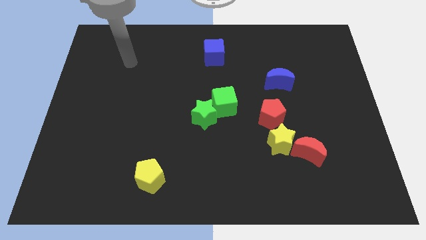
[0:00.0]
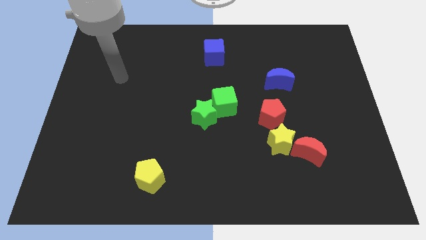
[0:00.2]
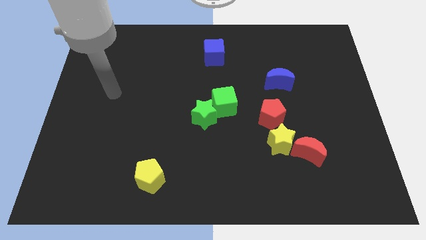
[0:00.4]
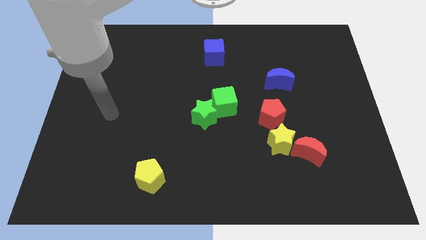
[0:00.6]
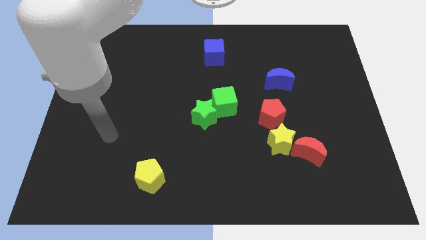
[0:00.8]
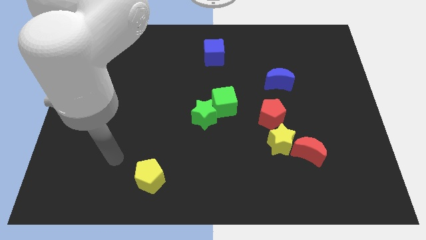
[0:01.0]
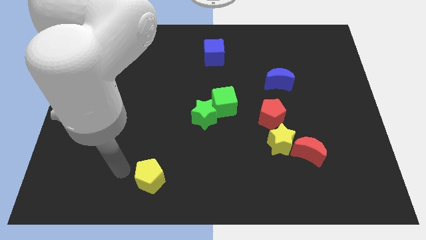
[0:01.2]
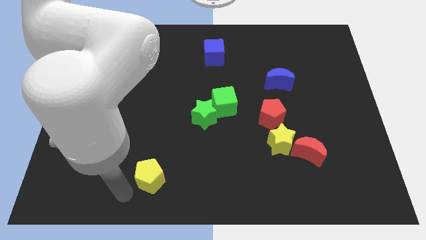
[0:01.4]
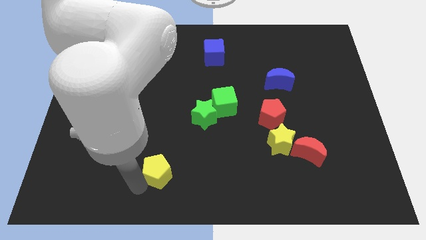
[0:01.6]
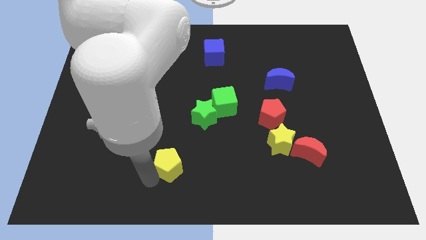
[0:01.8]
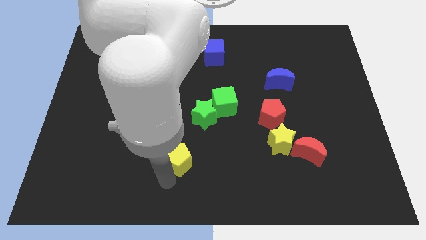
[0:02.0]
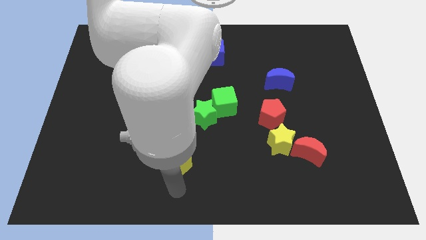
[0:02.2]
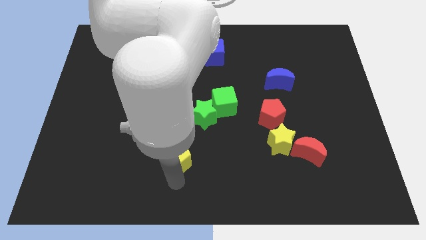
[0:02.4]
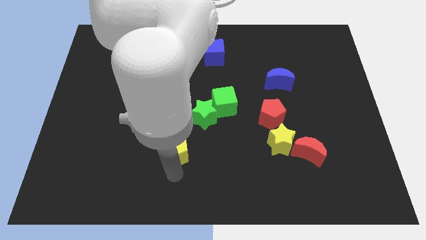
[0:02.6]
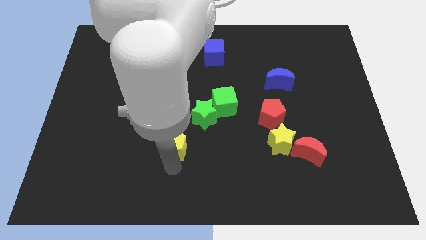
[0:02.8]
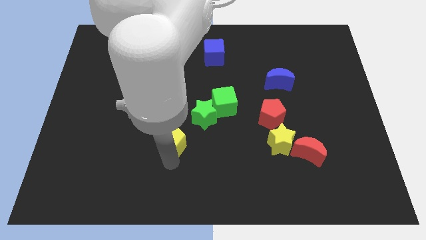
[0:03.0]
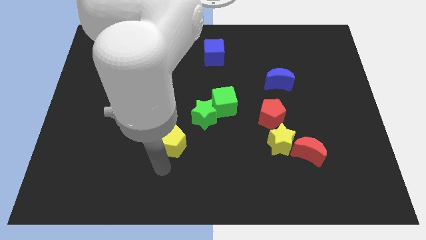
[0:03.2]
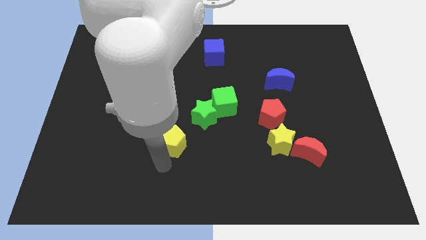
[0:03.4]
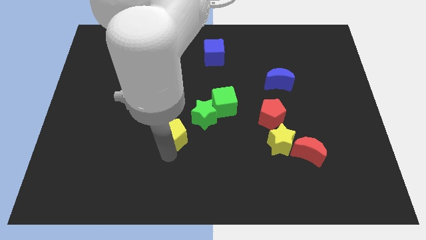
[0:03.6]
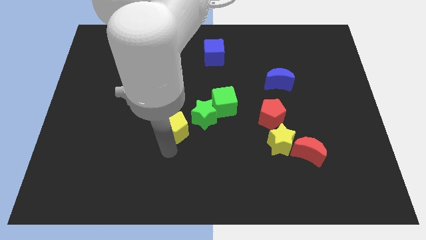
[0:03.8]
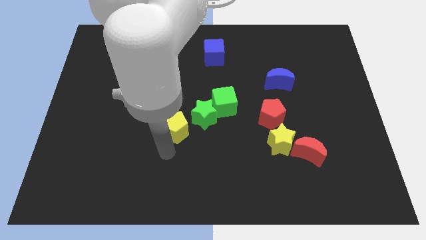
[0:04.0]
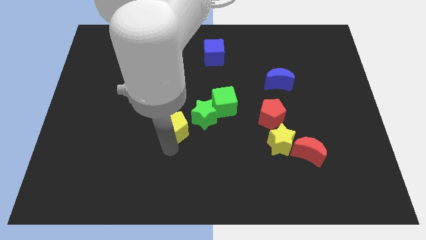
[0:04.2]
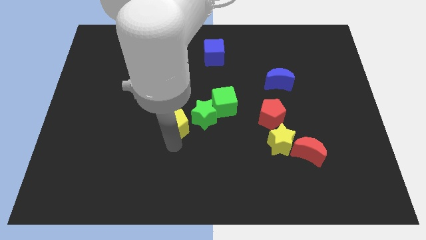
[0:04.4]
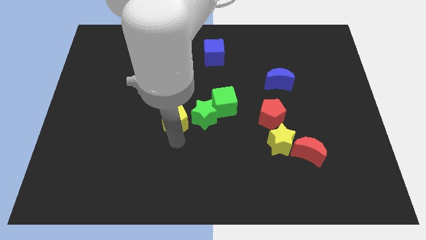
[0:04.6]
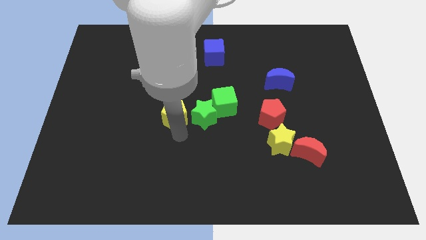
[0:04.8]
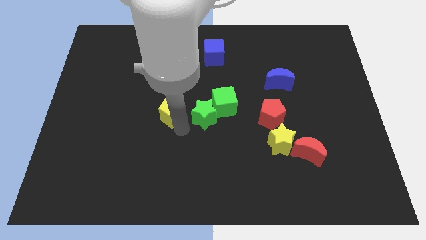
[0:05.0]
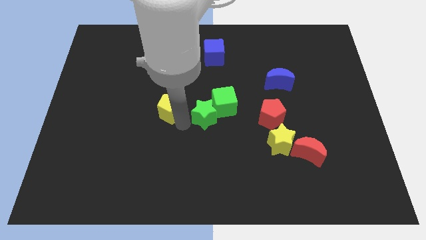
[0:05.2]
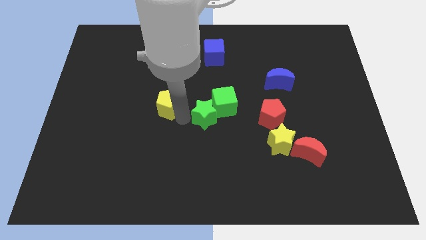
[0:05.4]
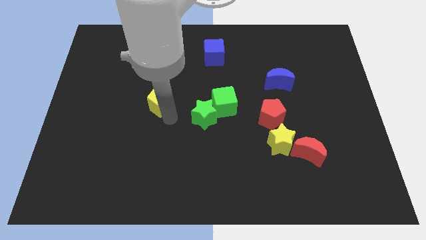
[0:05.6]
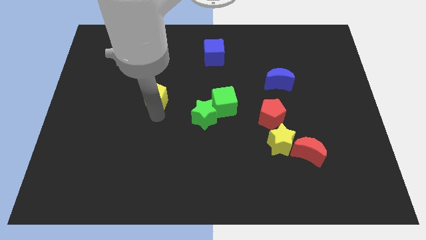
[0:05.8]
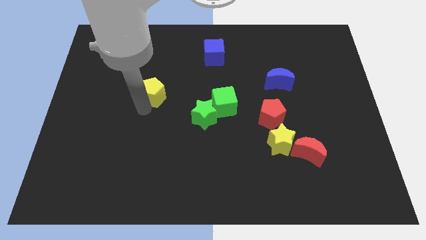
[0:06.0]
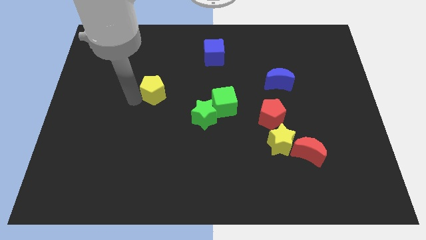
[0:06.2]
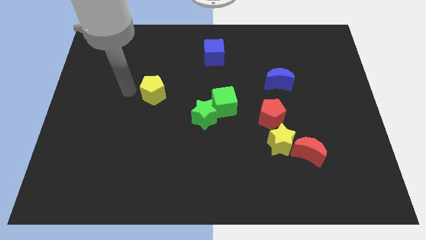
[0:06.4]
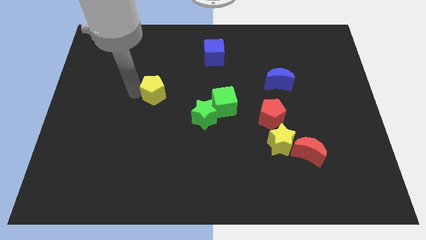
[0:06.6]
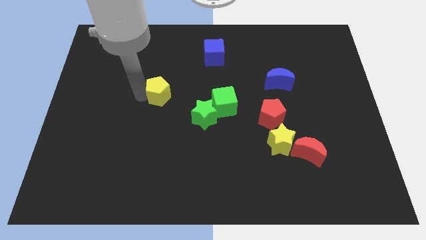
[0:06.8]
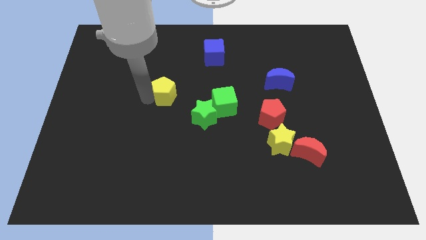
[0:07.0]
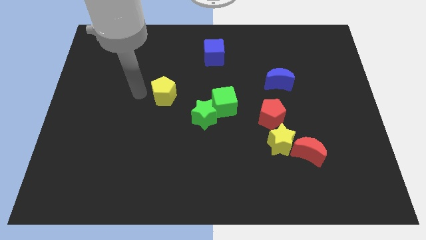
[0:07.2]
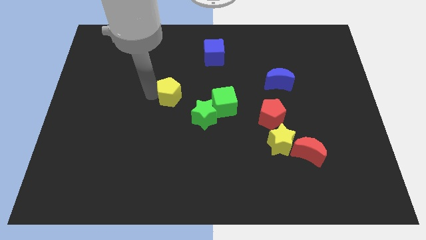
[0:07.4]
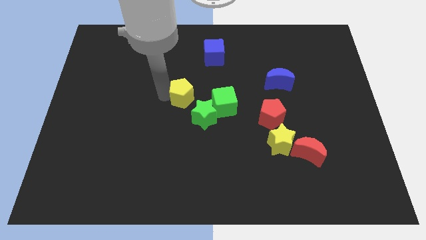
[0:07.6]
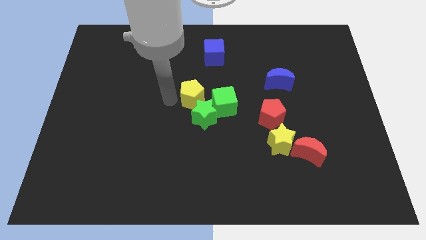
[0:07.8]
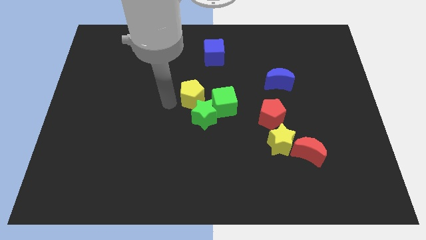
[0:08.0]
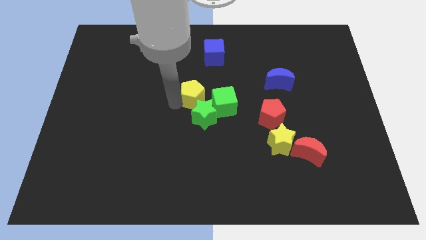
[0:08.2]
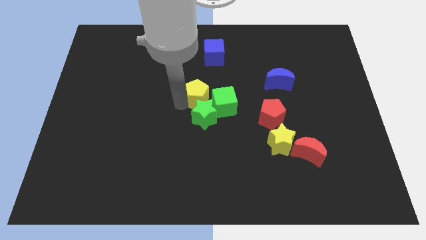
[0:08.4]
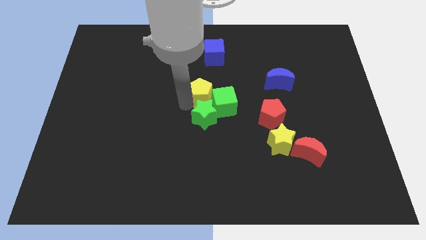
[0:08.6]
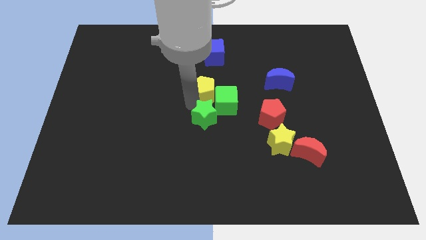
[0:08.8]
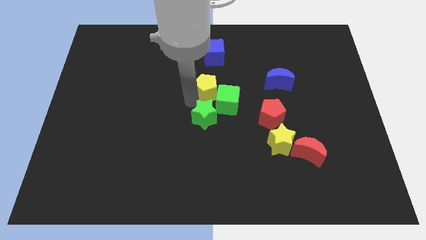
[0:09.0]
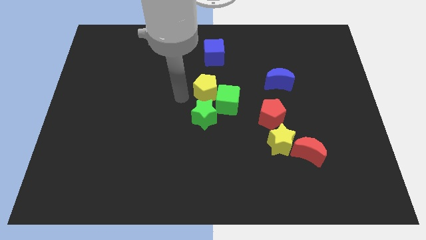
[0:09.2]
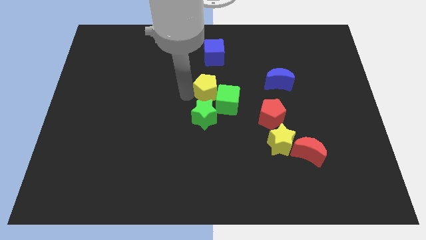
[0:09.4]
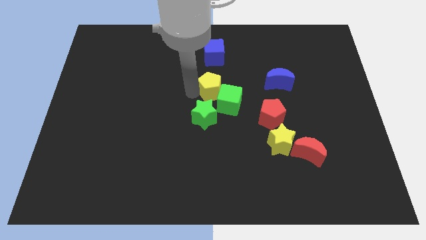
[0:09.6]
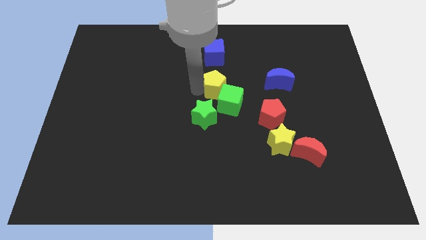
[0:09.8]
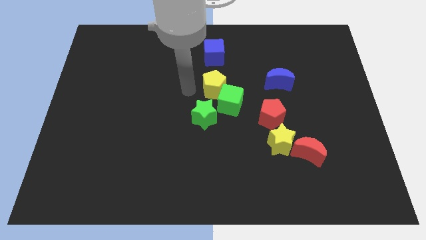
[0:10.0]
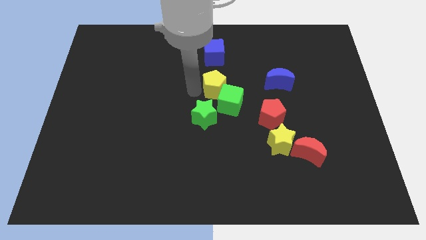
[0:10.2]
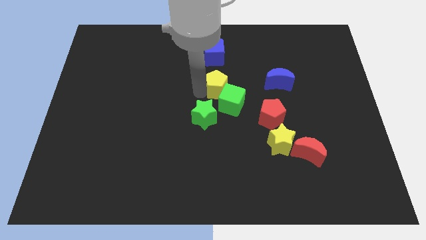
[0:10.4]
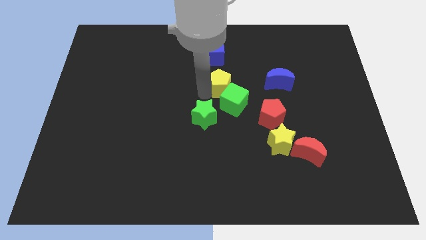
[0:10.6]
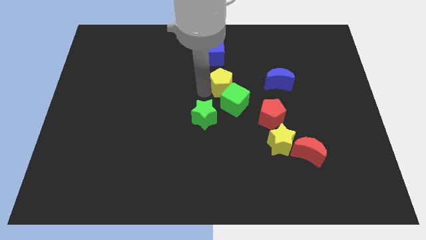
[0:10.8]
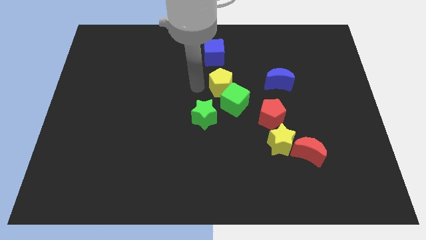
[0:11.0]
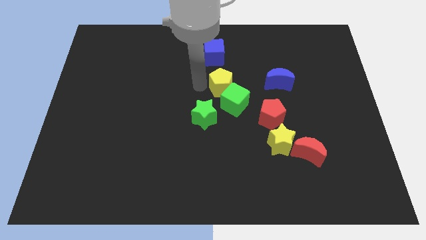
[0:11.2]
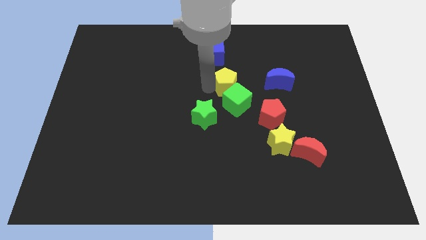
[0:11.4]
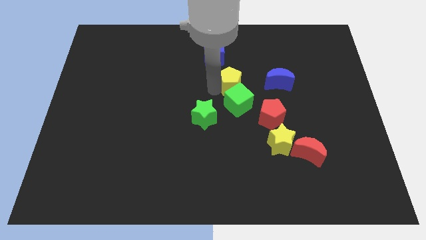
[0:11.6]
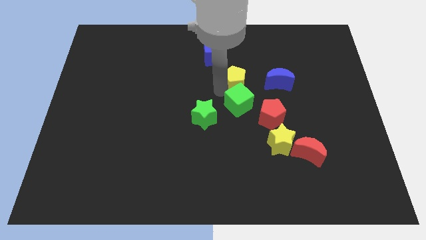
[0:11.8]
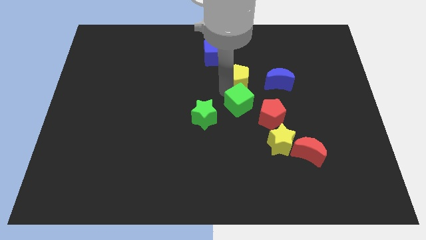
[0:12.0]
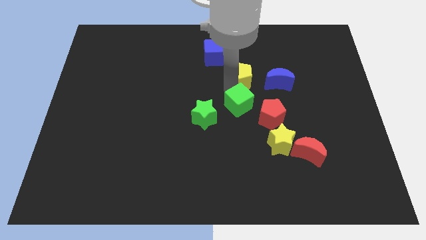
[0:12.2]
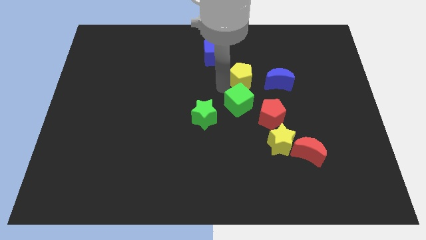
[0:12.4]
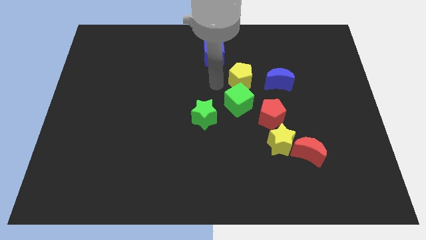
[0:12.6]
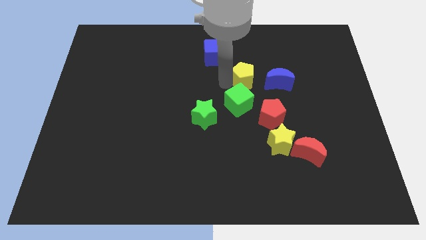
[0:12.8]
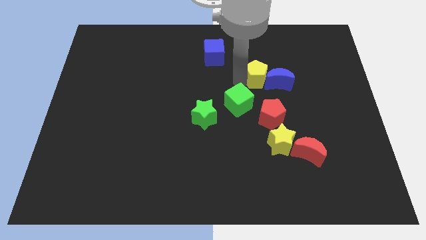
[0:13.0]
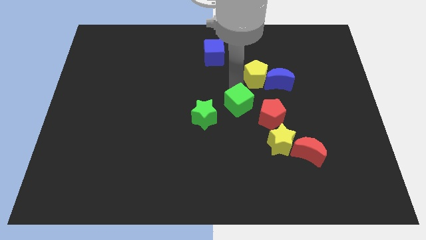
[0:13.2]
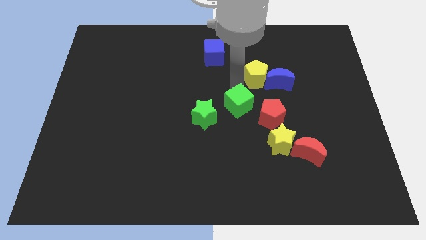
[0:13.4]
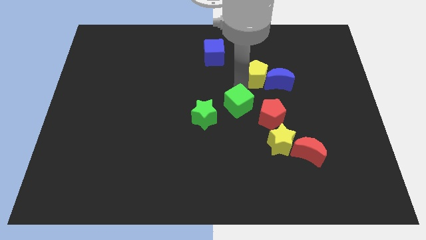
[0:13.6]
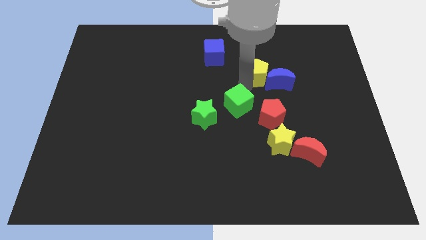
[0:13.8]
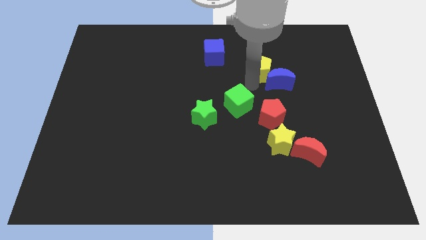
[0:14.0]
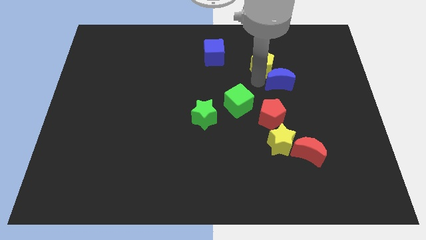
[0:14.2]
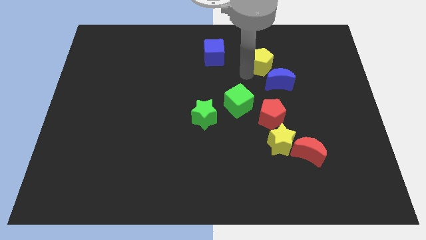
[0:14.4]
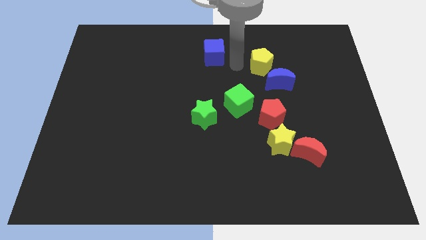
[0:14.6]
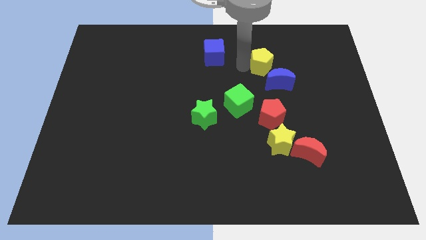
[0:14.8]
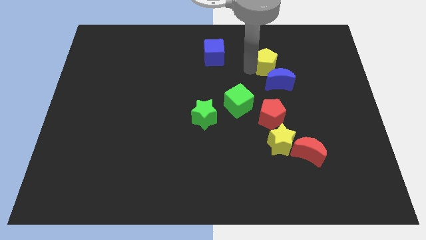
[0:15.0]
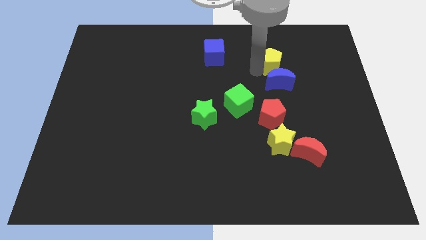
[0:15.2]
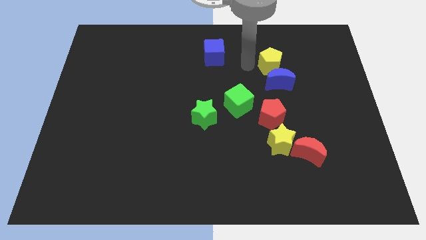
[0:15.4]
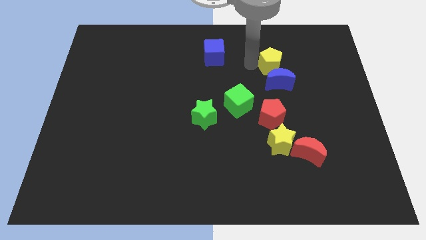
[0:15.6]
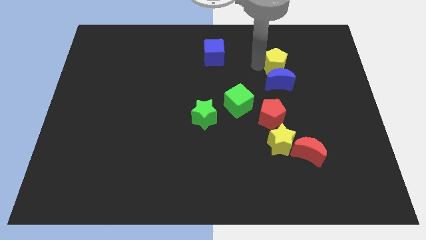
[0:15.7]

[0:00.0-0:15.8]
put the yellow pentagon to the top right side of the blue moon
